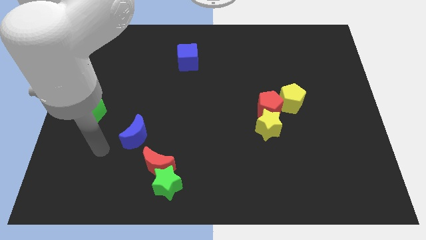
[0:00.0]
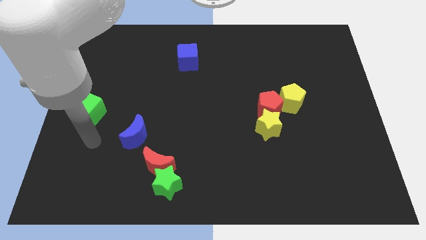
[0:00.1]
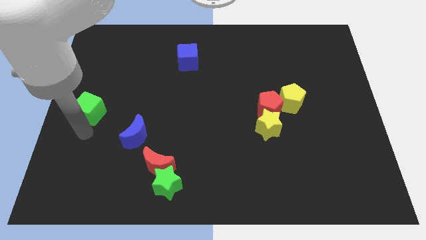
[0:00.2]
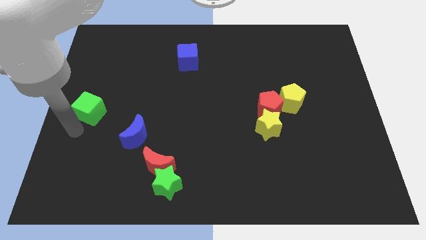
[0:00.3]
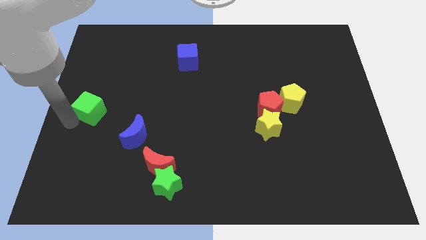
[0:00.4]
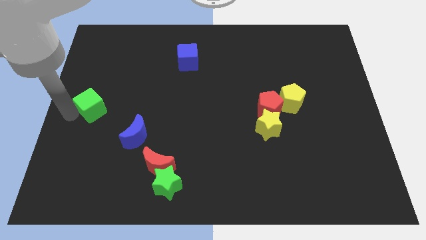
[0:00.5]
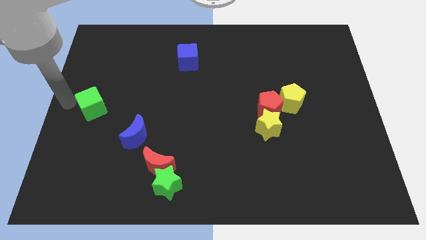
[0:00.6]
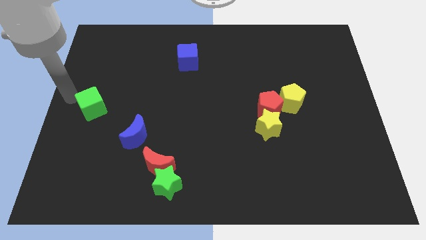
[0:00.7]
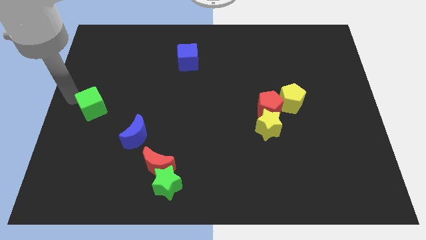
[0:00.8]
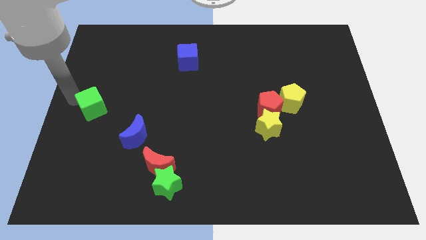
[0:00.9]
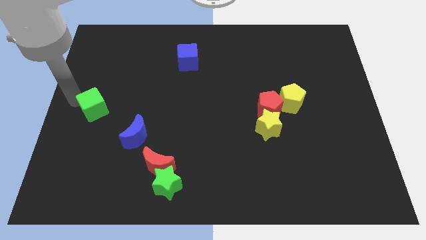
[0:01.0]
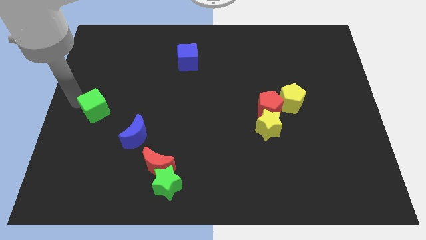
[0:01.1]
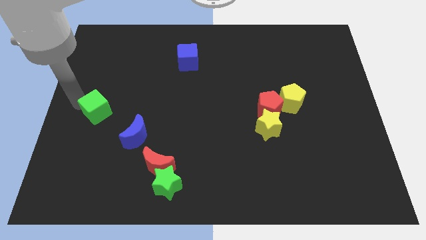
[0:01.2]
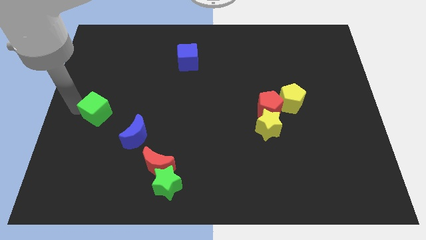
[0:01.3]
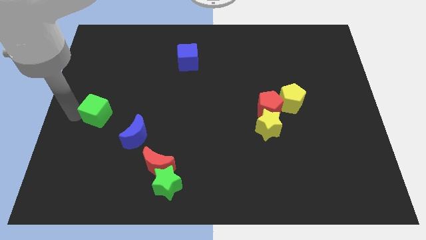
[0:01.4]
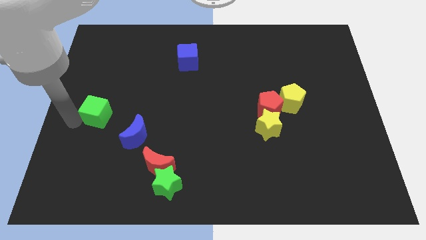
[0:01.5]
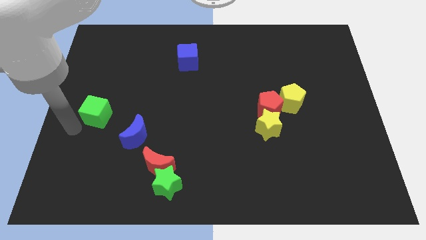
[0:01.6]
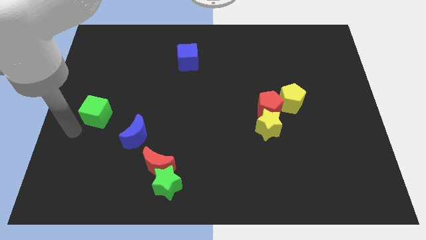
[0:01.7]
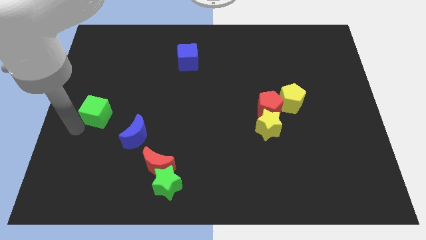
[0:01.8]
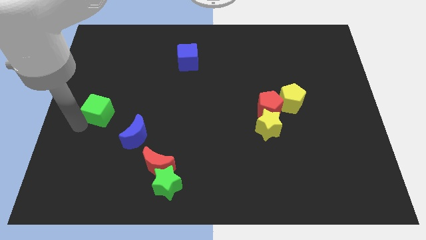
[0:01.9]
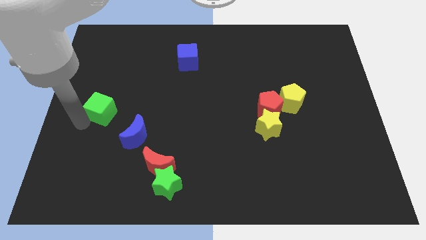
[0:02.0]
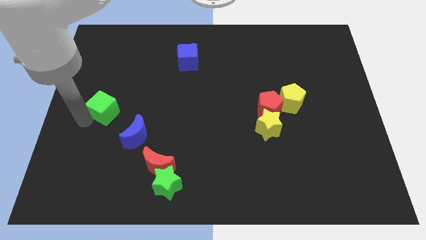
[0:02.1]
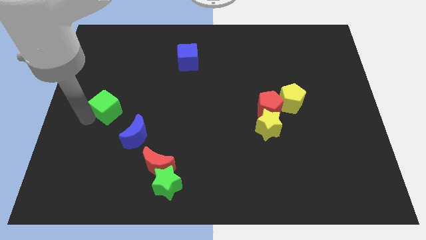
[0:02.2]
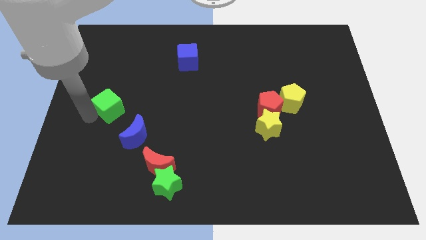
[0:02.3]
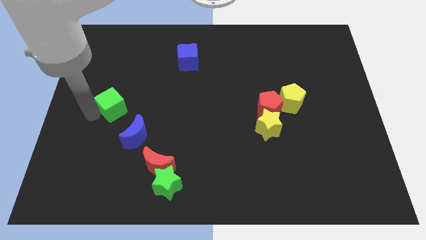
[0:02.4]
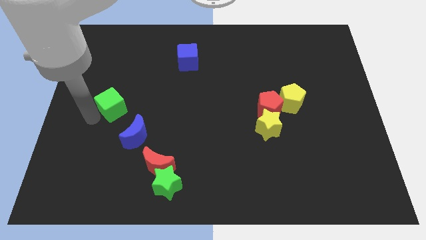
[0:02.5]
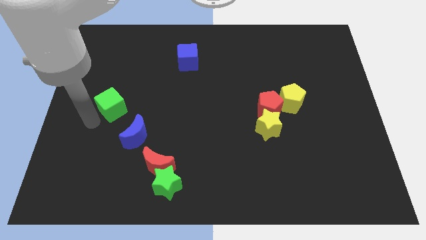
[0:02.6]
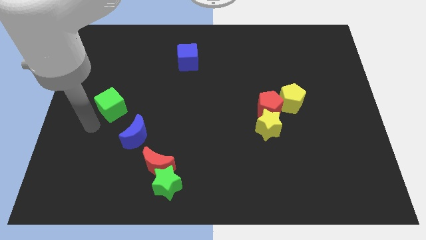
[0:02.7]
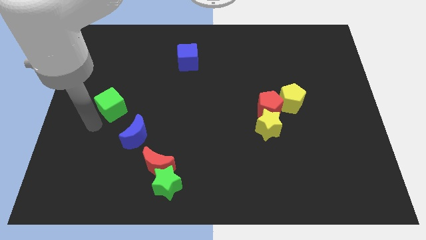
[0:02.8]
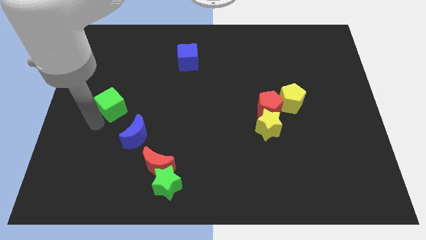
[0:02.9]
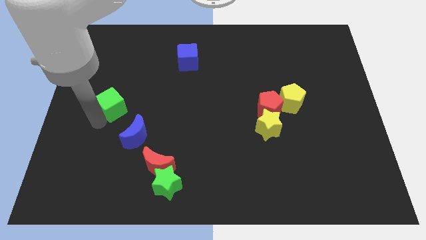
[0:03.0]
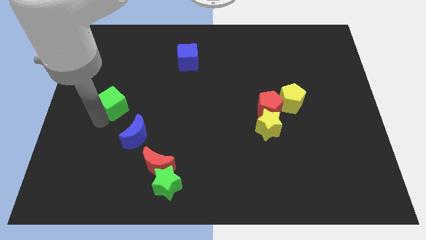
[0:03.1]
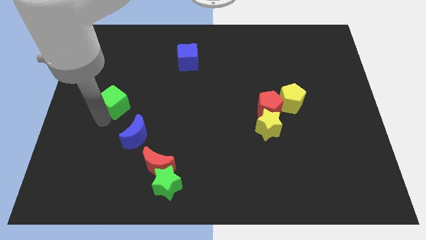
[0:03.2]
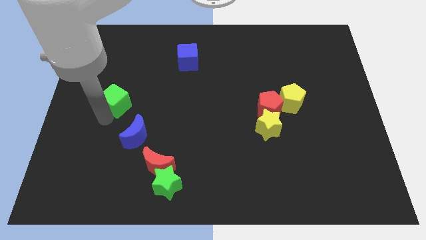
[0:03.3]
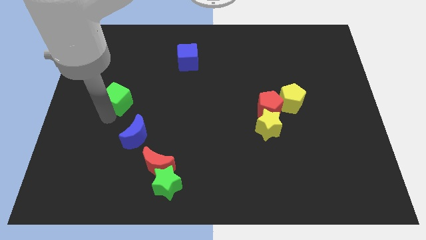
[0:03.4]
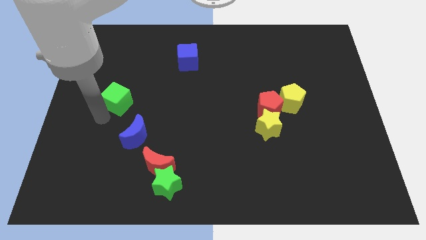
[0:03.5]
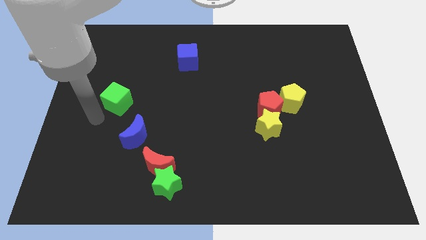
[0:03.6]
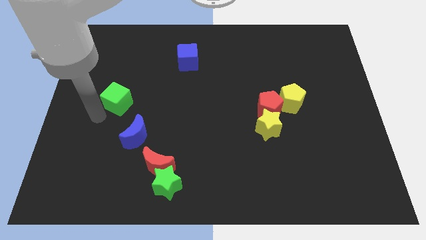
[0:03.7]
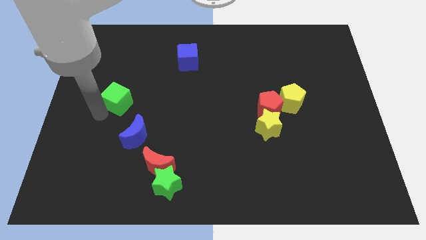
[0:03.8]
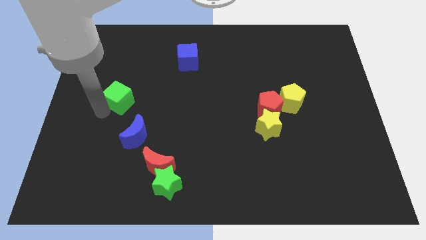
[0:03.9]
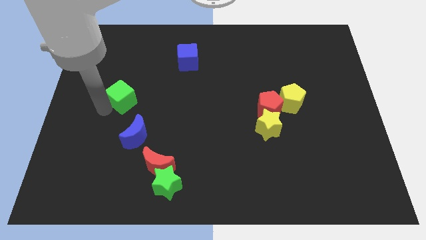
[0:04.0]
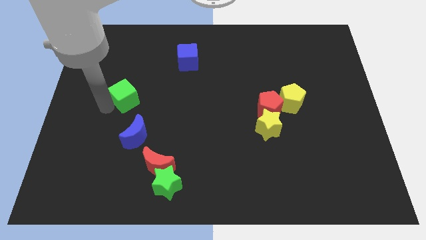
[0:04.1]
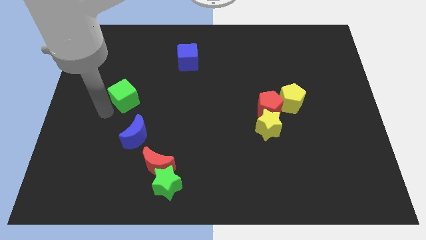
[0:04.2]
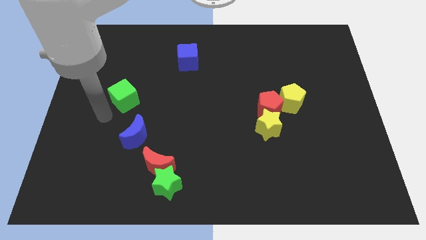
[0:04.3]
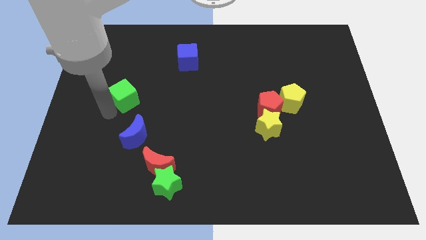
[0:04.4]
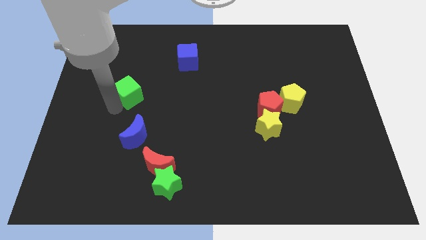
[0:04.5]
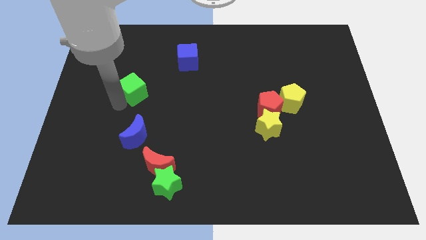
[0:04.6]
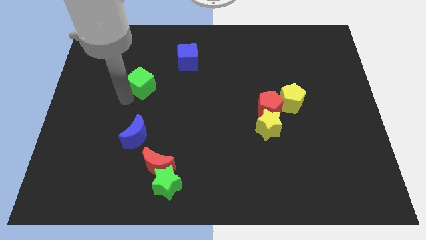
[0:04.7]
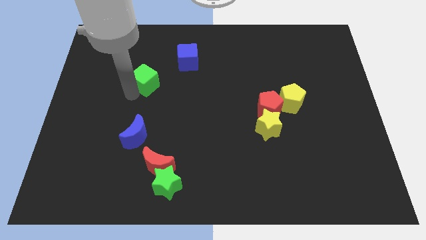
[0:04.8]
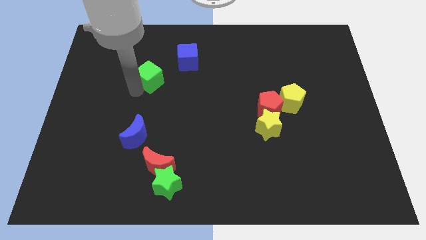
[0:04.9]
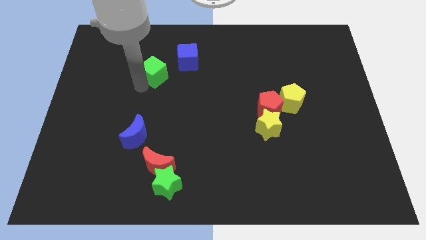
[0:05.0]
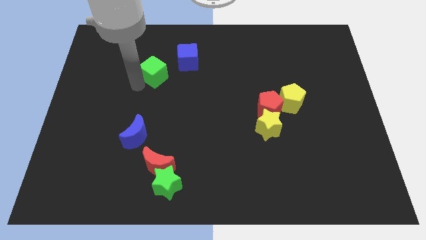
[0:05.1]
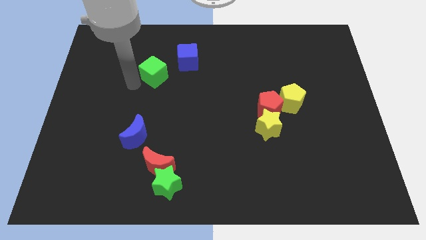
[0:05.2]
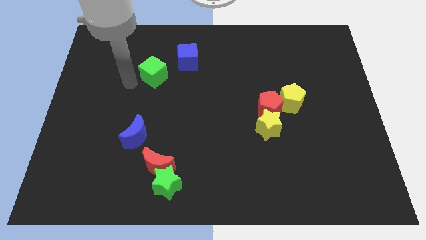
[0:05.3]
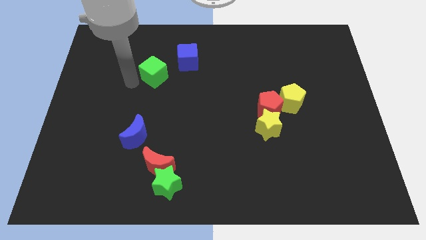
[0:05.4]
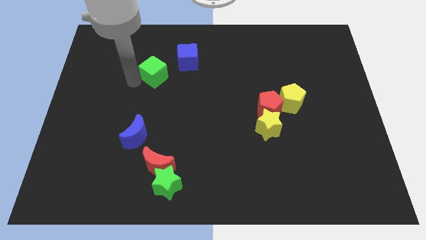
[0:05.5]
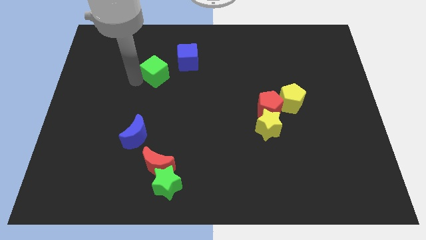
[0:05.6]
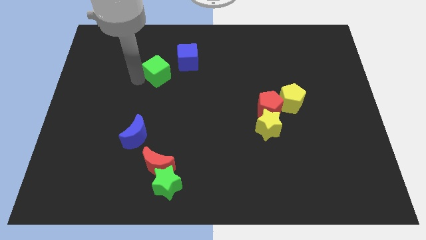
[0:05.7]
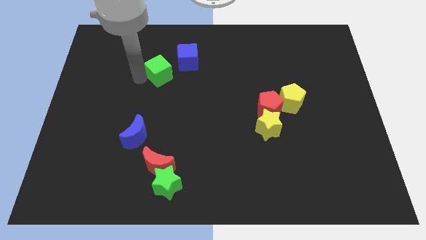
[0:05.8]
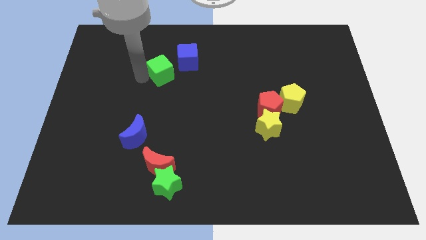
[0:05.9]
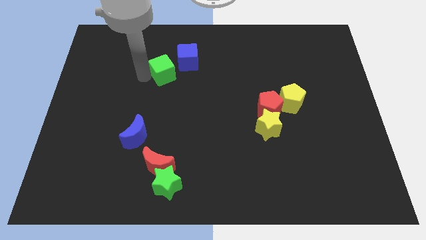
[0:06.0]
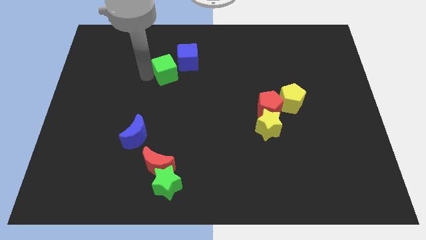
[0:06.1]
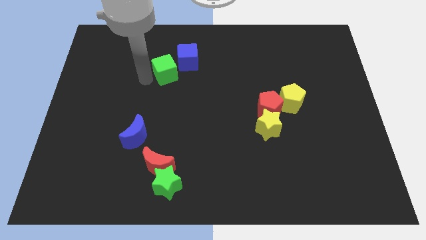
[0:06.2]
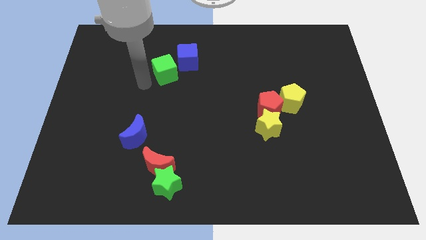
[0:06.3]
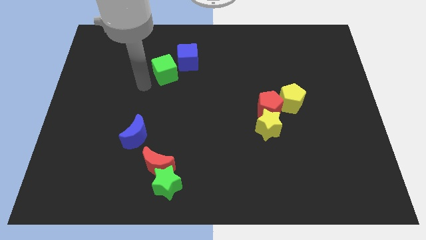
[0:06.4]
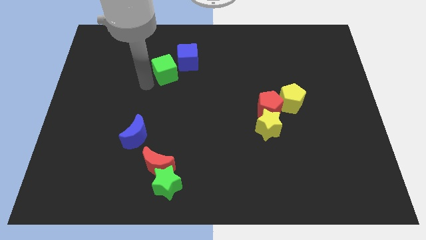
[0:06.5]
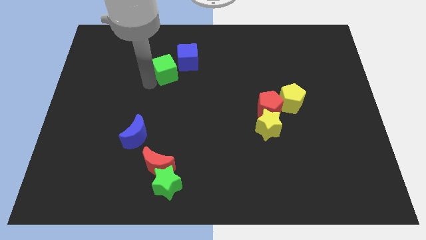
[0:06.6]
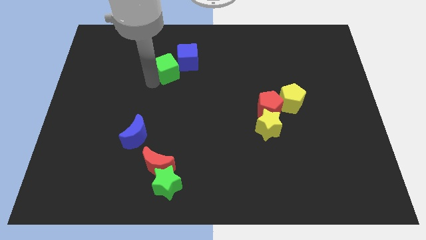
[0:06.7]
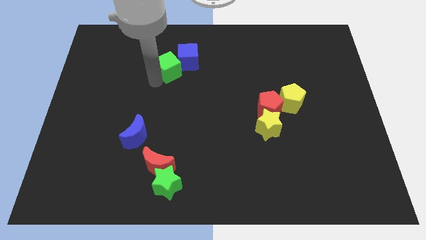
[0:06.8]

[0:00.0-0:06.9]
put the green cube close to the blue cube

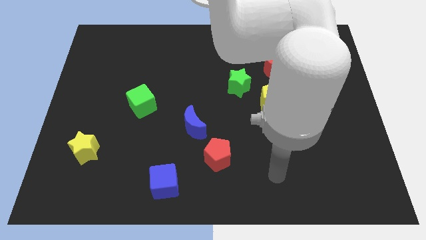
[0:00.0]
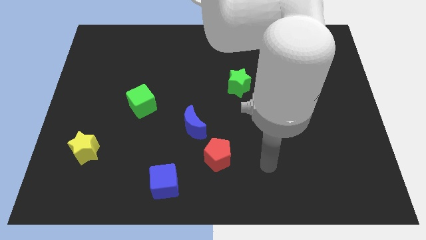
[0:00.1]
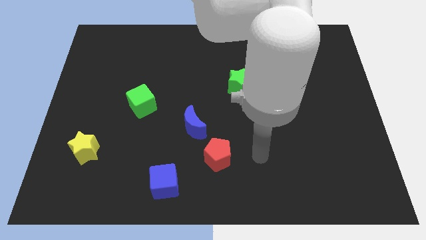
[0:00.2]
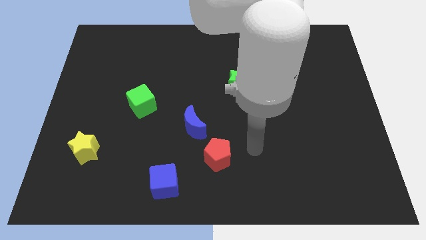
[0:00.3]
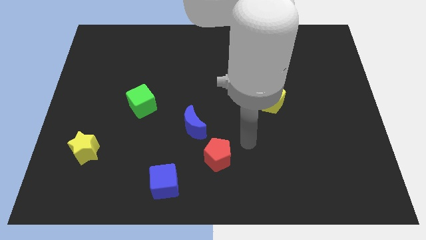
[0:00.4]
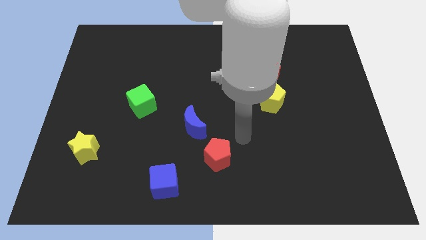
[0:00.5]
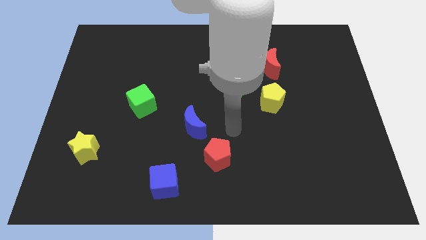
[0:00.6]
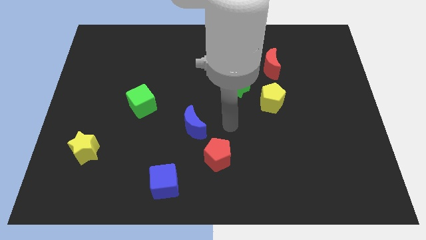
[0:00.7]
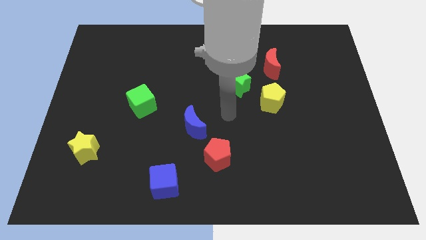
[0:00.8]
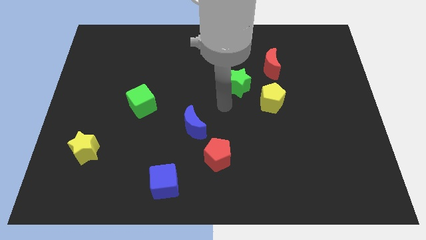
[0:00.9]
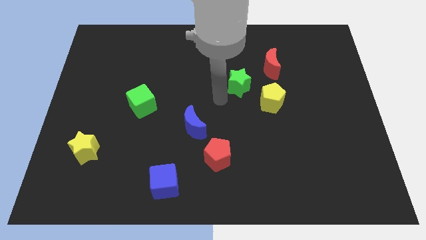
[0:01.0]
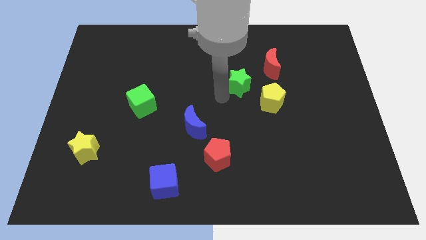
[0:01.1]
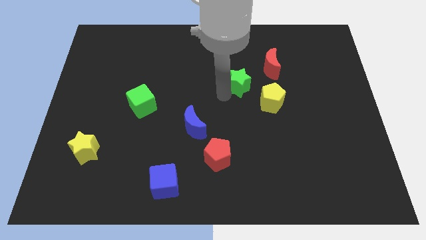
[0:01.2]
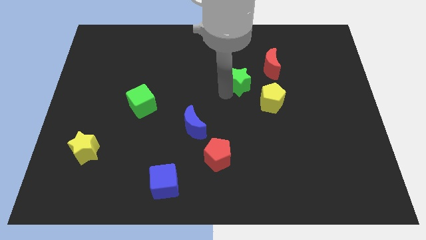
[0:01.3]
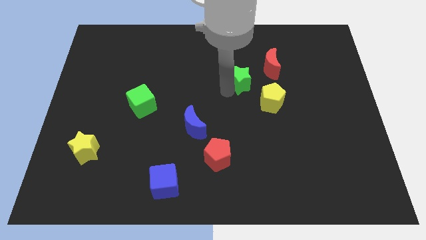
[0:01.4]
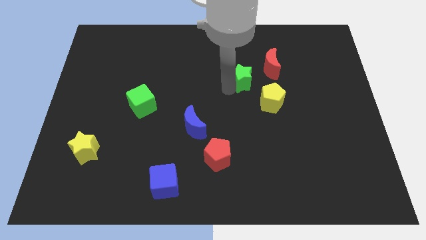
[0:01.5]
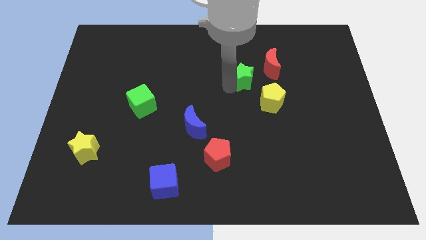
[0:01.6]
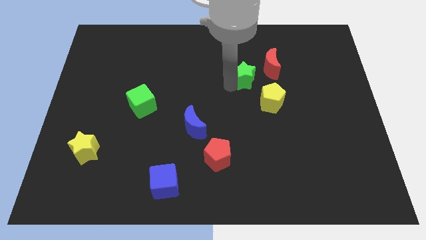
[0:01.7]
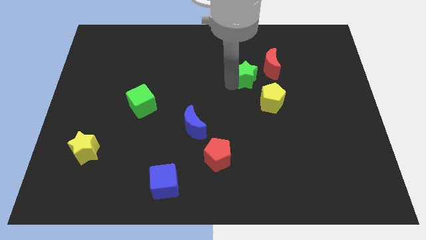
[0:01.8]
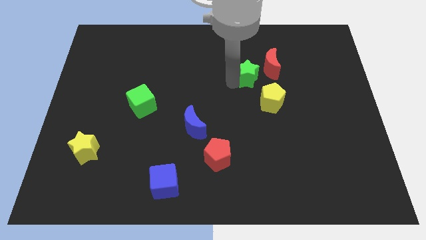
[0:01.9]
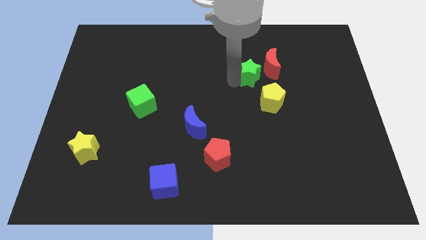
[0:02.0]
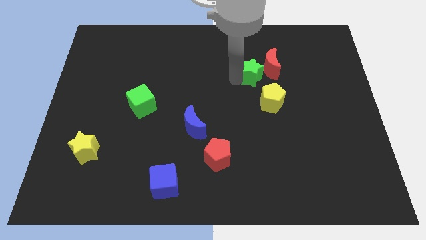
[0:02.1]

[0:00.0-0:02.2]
put the green star close to the red moon
